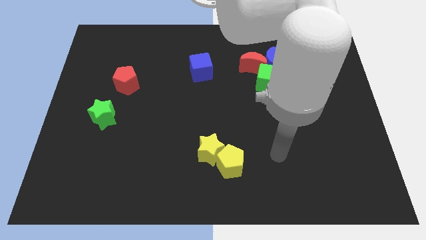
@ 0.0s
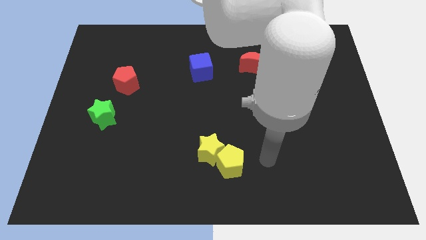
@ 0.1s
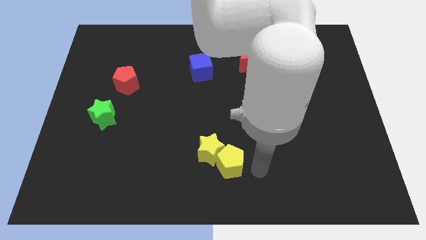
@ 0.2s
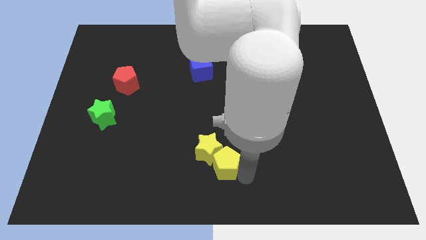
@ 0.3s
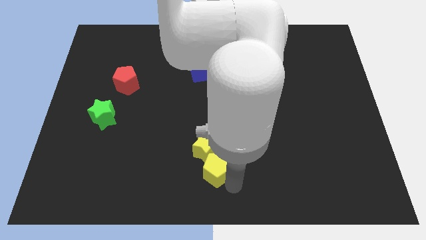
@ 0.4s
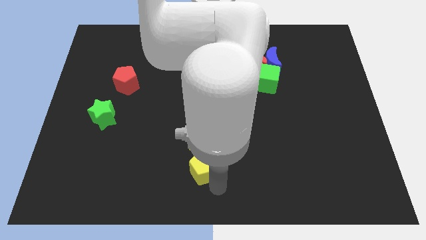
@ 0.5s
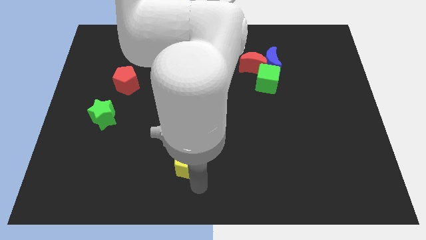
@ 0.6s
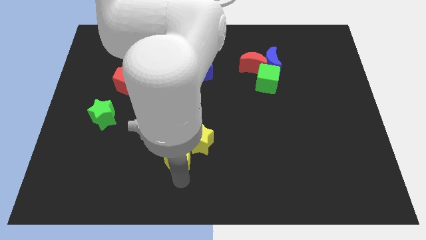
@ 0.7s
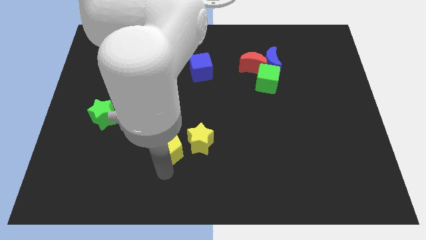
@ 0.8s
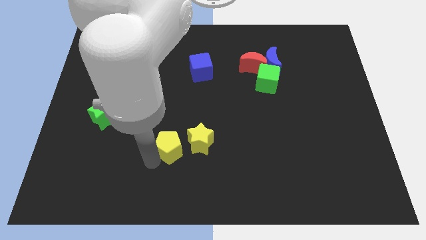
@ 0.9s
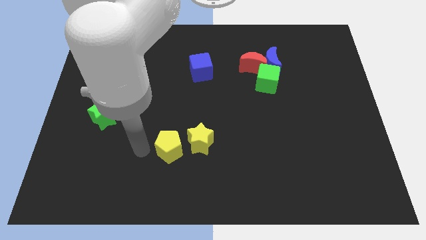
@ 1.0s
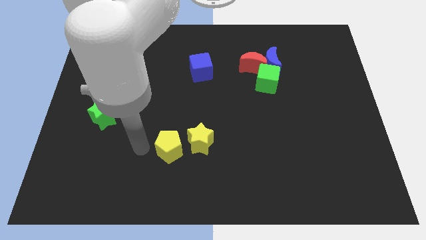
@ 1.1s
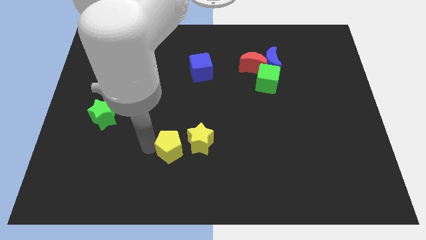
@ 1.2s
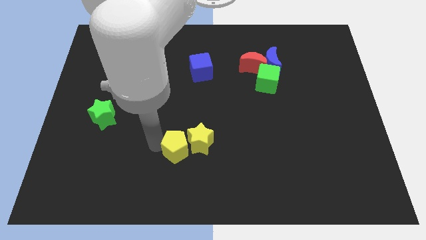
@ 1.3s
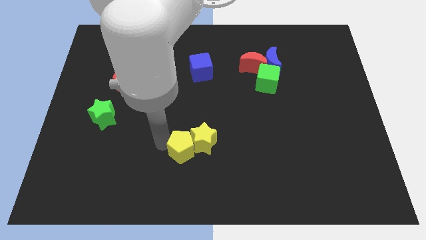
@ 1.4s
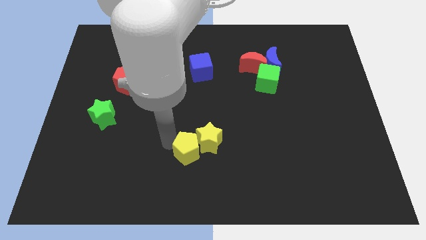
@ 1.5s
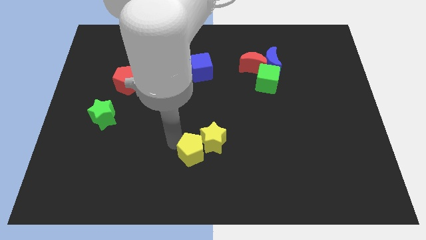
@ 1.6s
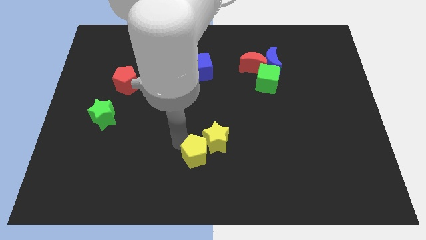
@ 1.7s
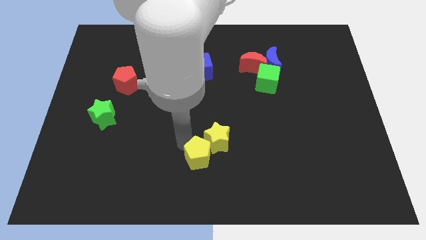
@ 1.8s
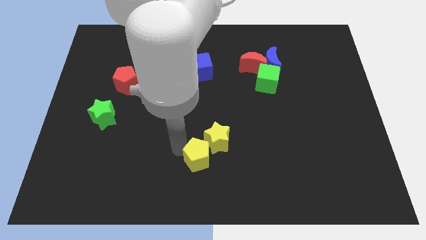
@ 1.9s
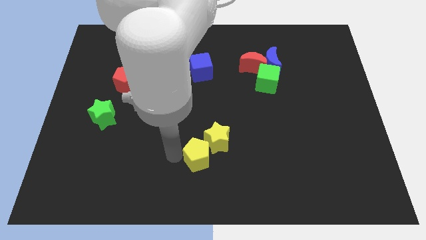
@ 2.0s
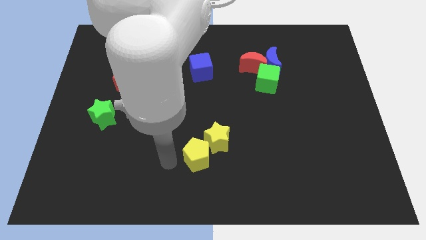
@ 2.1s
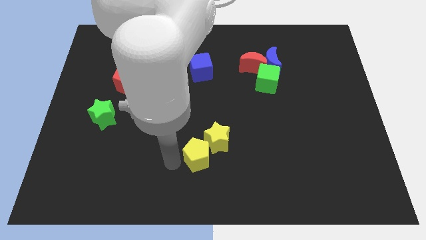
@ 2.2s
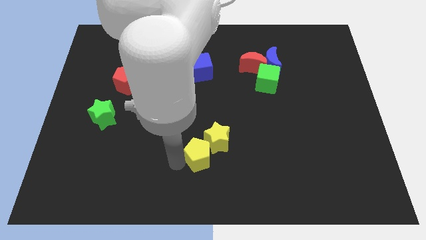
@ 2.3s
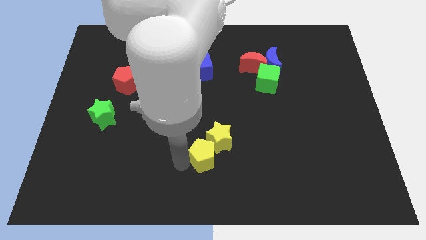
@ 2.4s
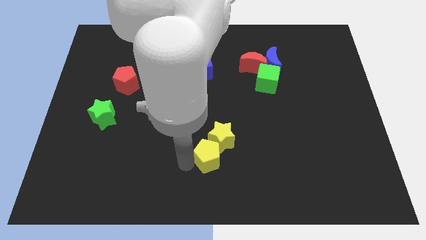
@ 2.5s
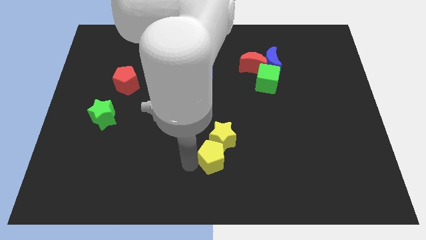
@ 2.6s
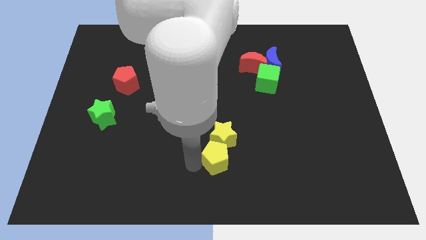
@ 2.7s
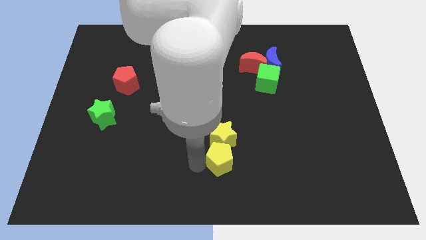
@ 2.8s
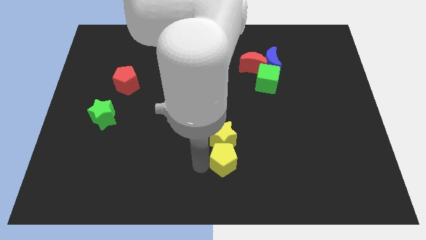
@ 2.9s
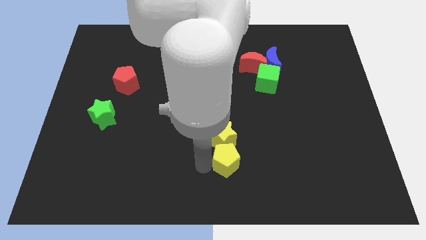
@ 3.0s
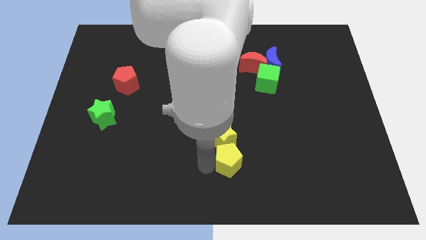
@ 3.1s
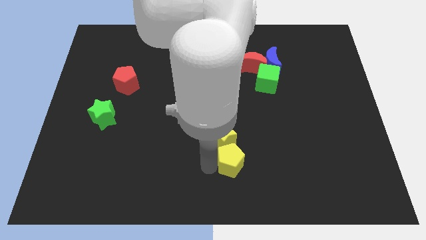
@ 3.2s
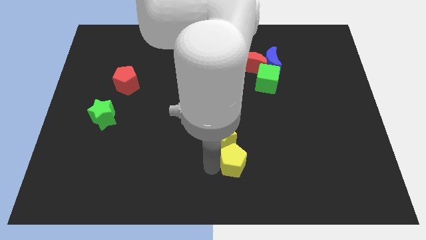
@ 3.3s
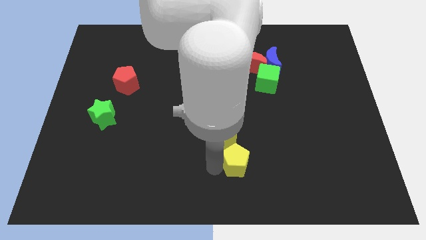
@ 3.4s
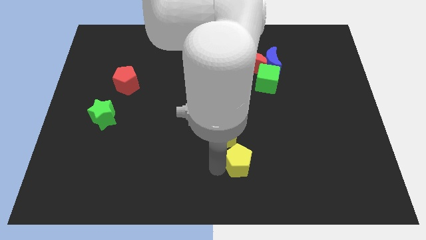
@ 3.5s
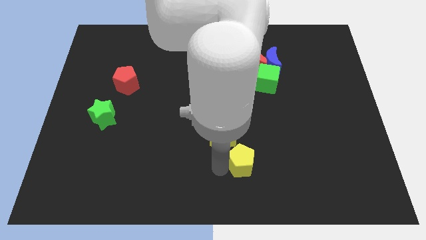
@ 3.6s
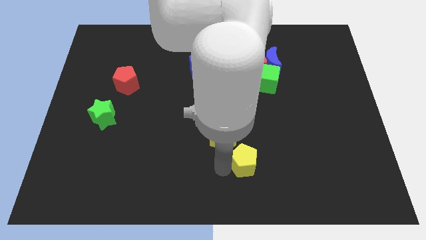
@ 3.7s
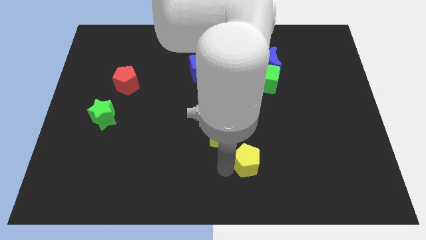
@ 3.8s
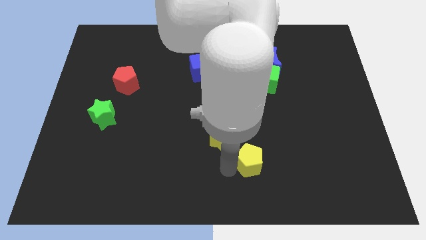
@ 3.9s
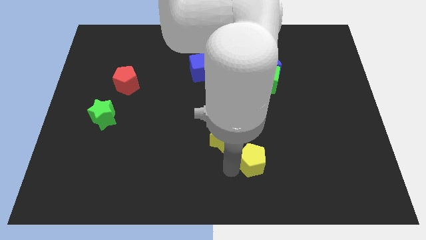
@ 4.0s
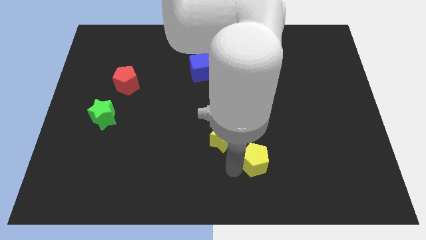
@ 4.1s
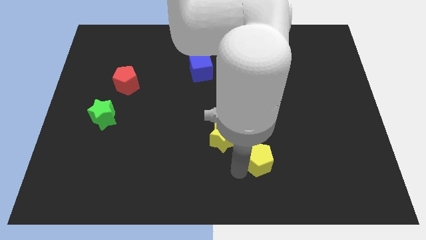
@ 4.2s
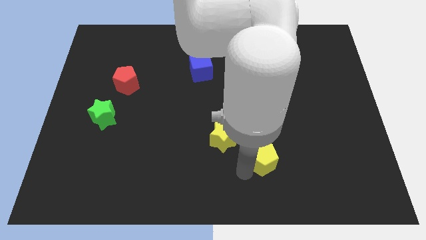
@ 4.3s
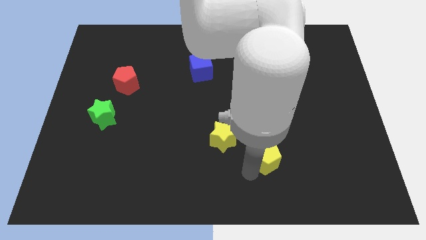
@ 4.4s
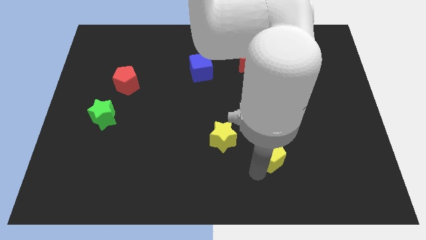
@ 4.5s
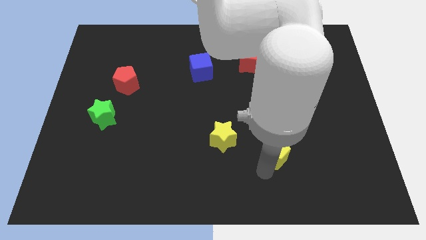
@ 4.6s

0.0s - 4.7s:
slightly slide the yellow pentagon upwards and right

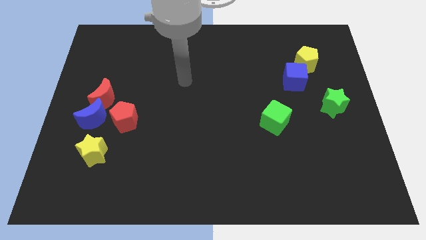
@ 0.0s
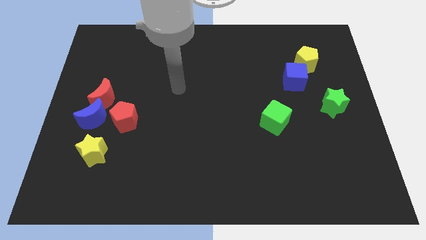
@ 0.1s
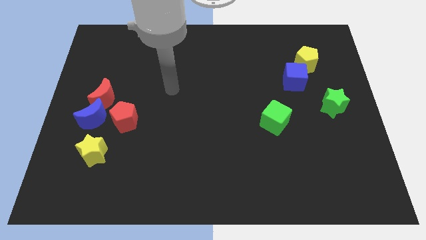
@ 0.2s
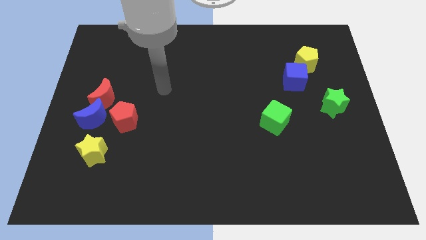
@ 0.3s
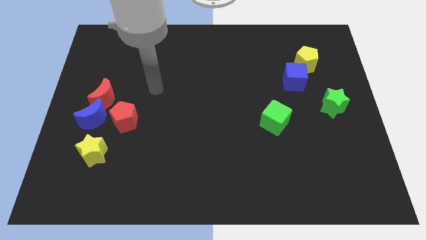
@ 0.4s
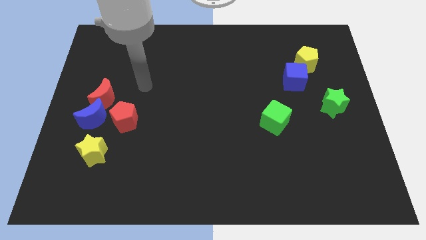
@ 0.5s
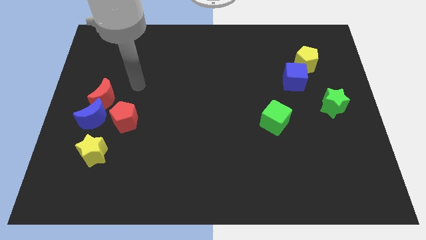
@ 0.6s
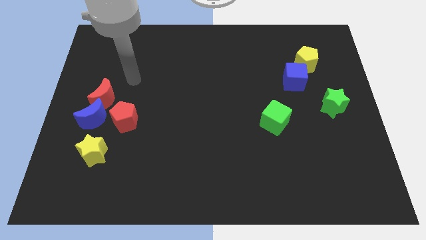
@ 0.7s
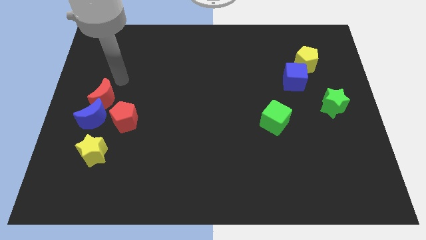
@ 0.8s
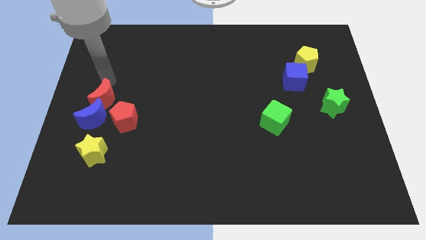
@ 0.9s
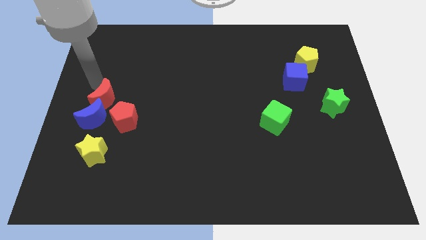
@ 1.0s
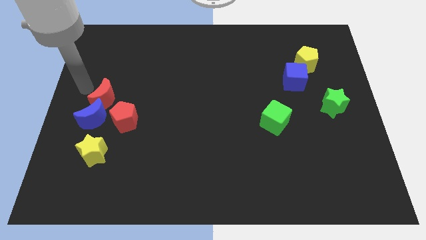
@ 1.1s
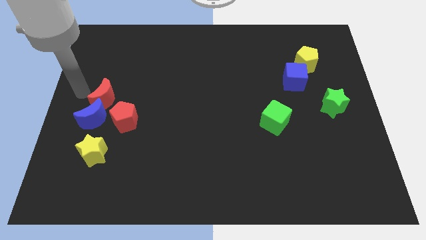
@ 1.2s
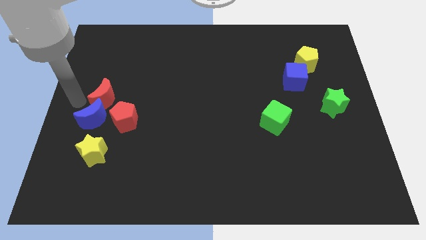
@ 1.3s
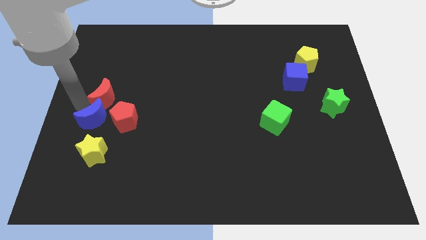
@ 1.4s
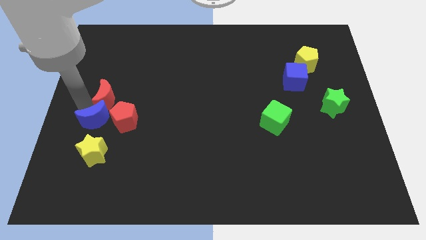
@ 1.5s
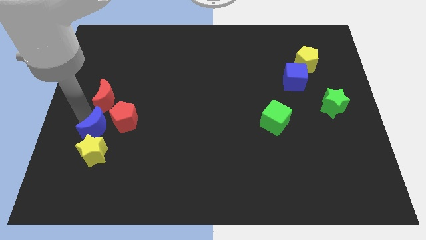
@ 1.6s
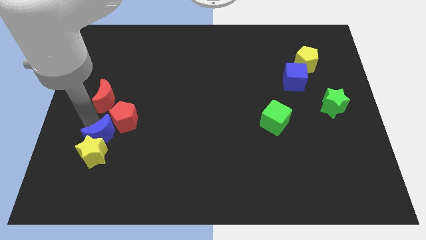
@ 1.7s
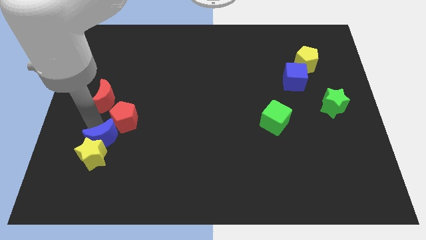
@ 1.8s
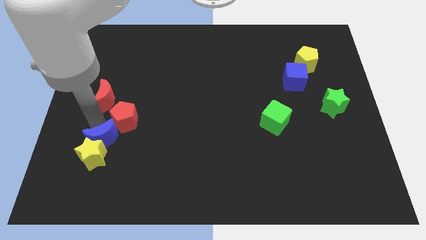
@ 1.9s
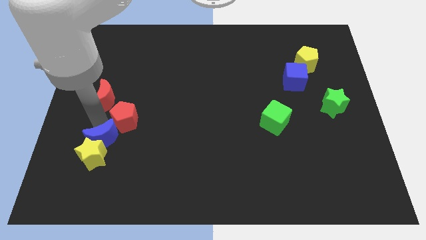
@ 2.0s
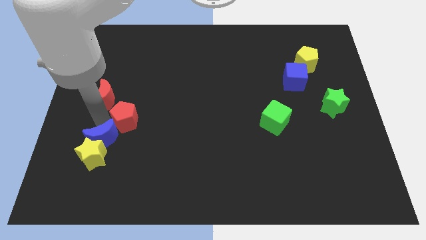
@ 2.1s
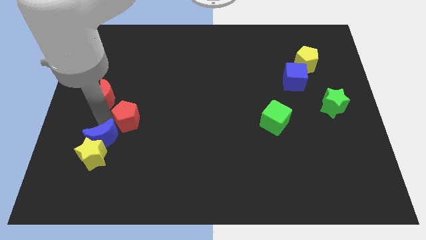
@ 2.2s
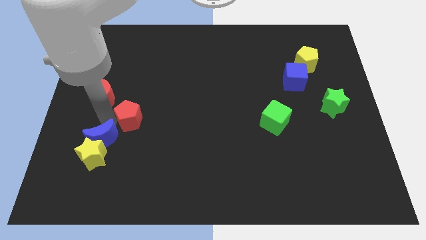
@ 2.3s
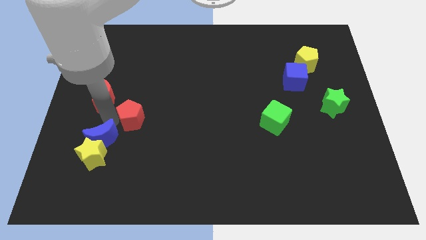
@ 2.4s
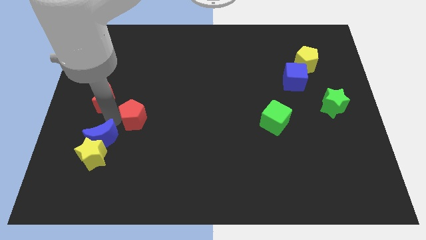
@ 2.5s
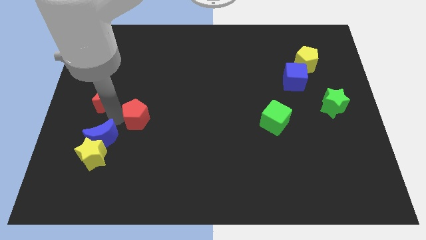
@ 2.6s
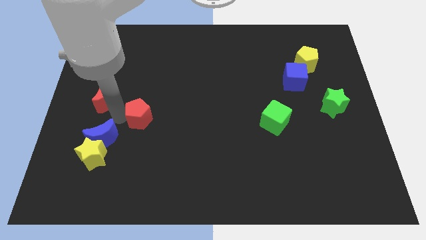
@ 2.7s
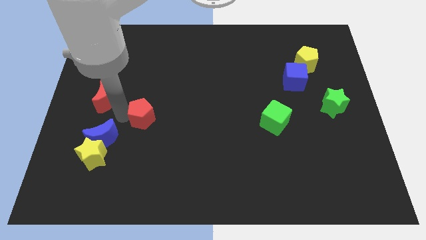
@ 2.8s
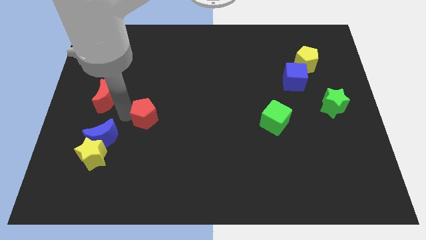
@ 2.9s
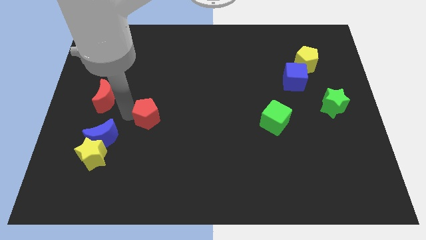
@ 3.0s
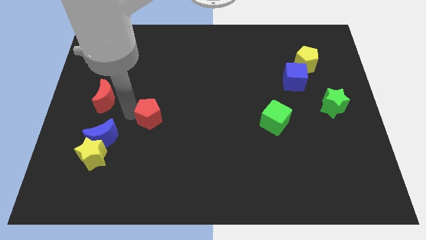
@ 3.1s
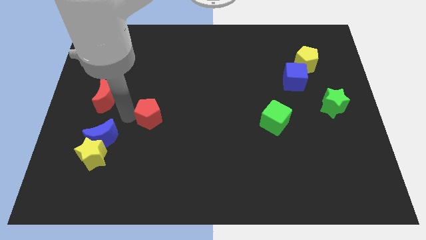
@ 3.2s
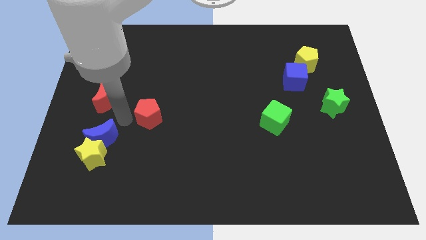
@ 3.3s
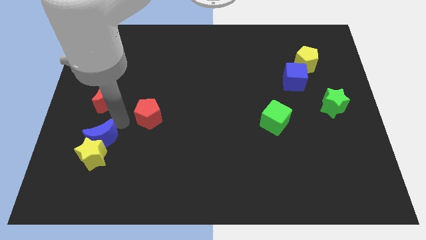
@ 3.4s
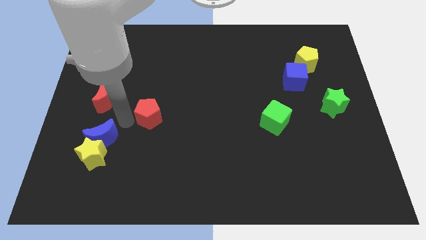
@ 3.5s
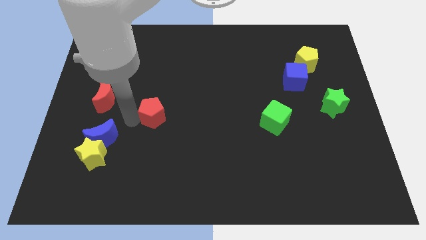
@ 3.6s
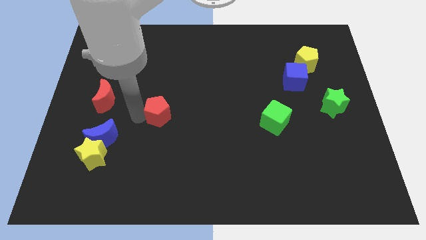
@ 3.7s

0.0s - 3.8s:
slightly move the red pentagon to the right
